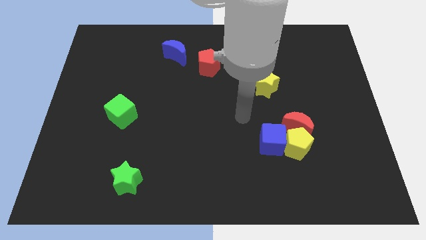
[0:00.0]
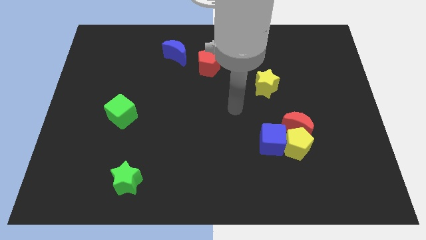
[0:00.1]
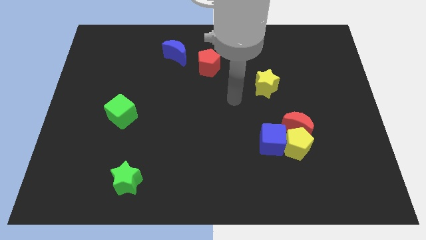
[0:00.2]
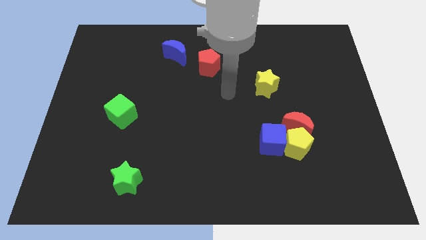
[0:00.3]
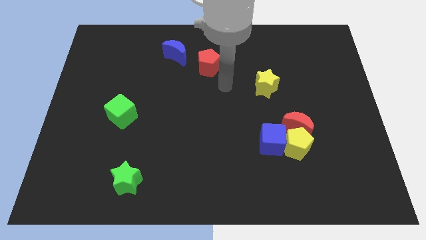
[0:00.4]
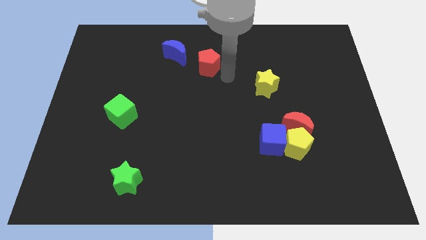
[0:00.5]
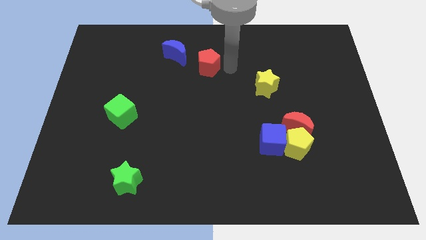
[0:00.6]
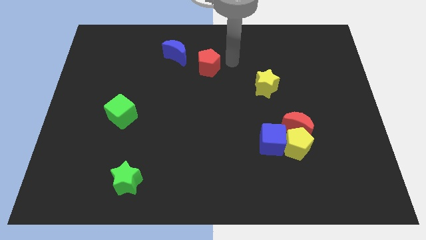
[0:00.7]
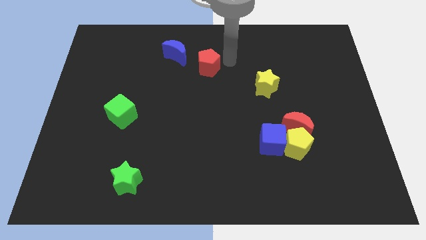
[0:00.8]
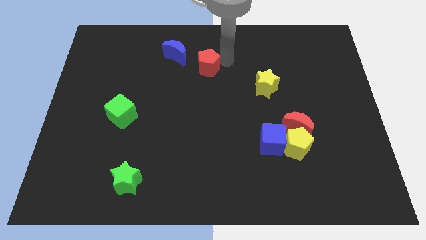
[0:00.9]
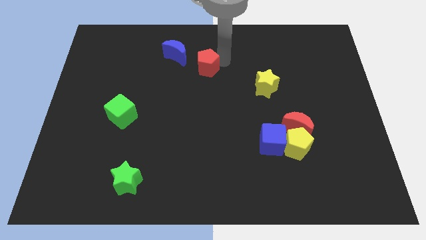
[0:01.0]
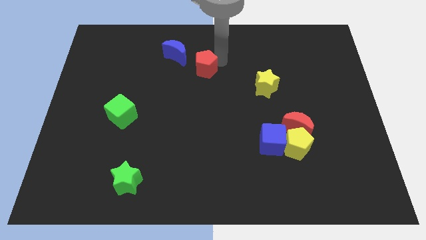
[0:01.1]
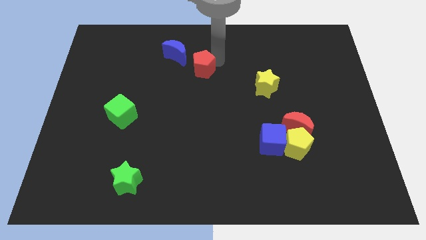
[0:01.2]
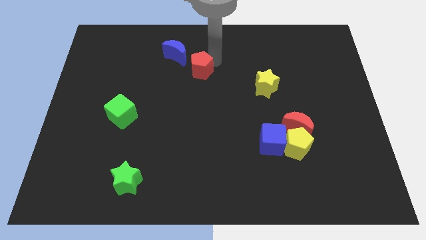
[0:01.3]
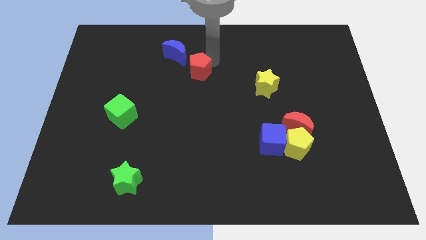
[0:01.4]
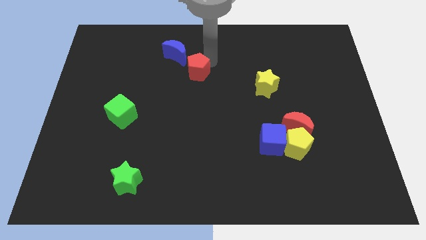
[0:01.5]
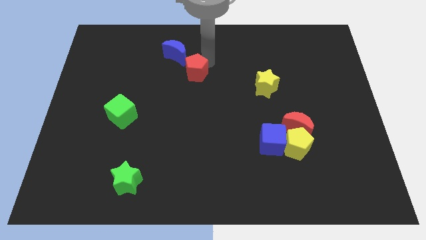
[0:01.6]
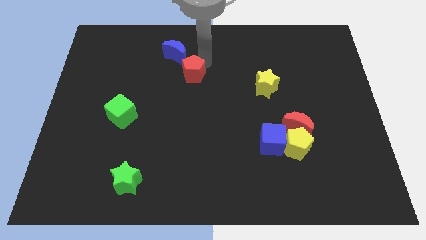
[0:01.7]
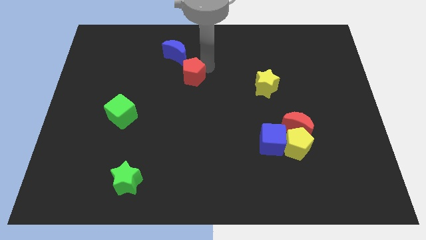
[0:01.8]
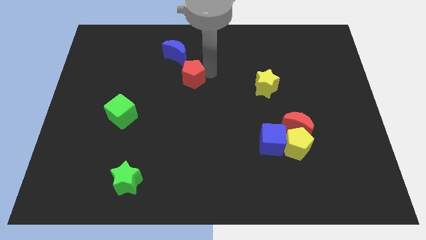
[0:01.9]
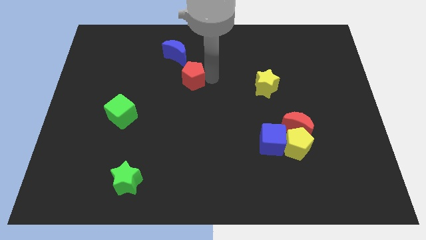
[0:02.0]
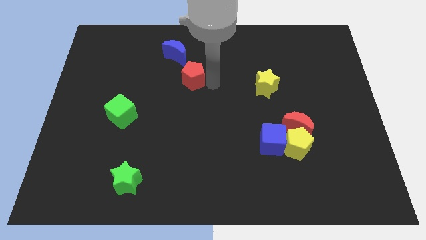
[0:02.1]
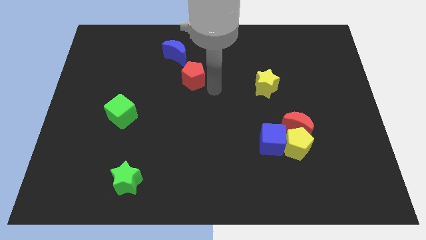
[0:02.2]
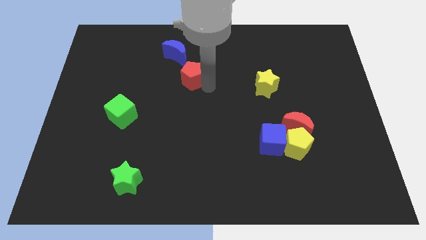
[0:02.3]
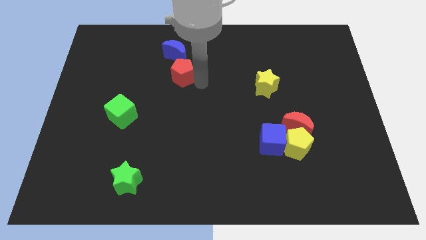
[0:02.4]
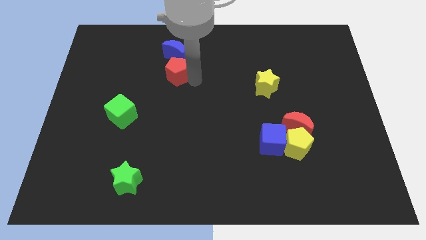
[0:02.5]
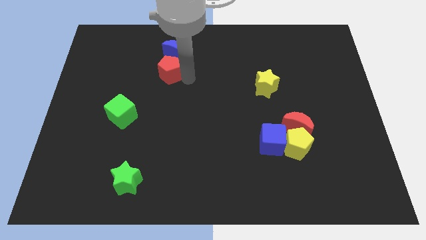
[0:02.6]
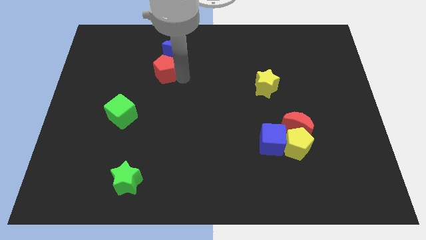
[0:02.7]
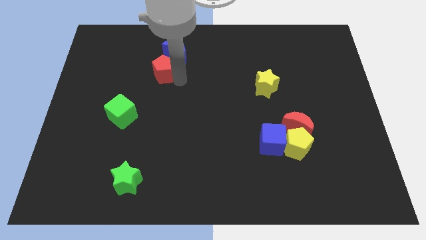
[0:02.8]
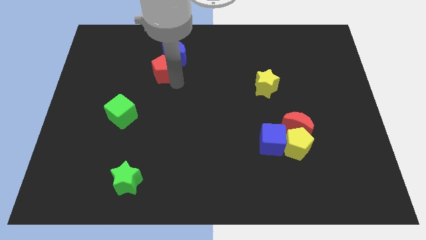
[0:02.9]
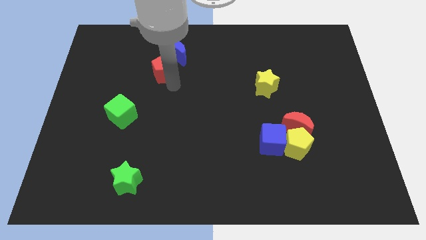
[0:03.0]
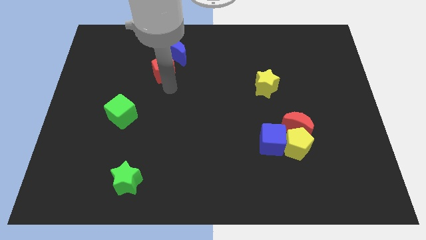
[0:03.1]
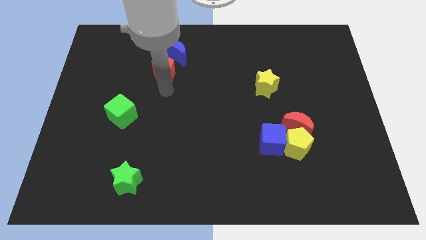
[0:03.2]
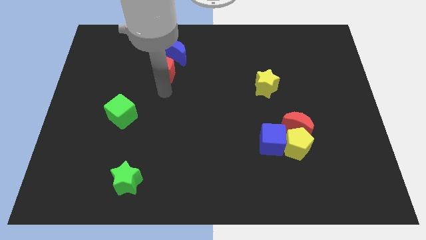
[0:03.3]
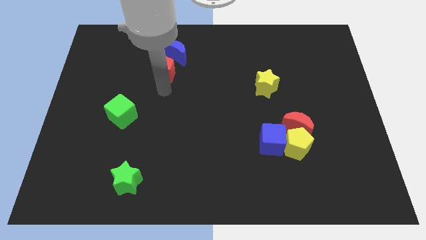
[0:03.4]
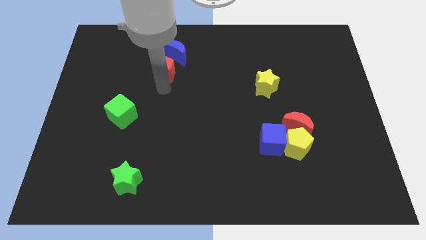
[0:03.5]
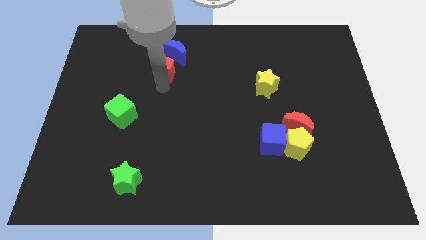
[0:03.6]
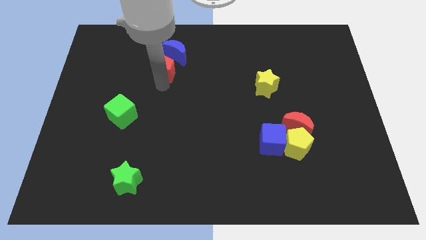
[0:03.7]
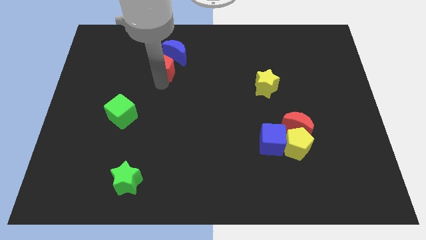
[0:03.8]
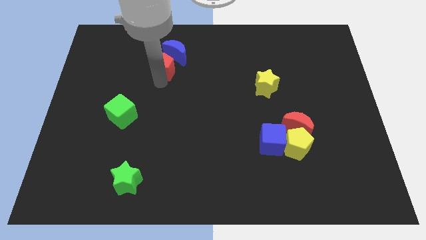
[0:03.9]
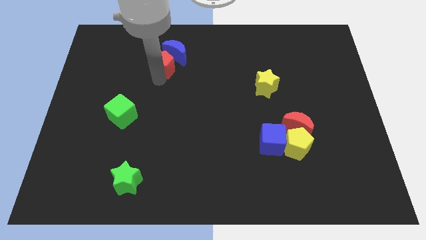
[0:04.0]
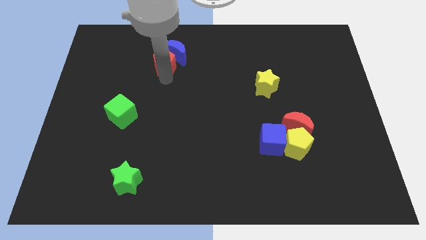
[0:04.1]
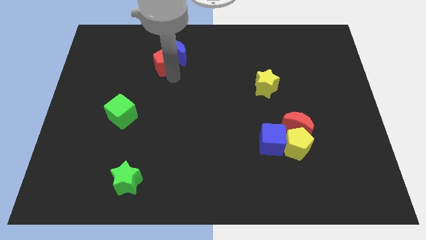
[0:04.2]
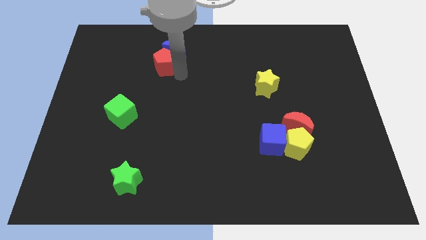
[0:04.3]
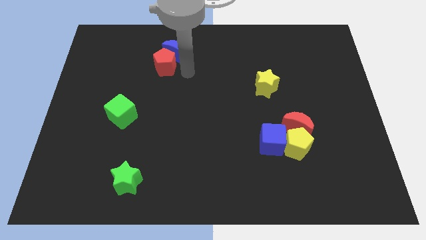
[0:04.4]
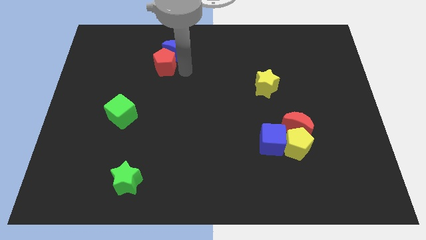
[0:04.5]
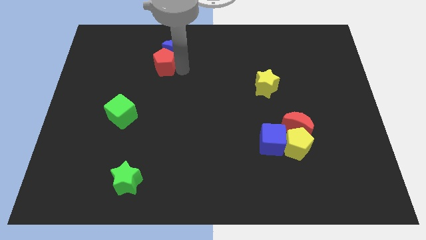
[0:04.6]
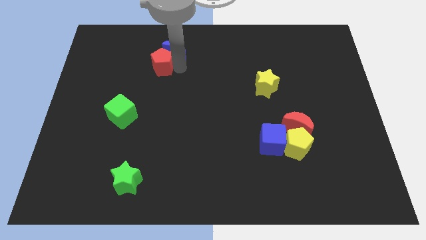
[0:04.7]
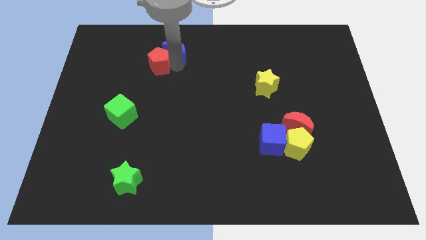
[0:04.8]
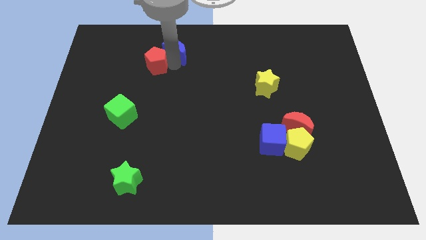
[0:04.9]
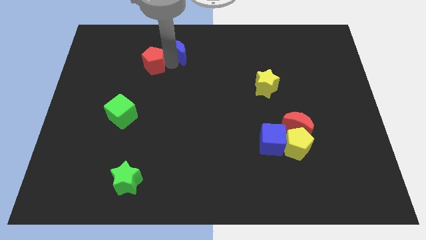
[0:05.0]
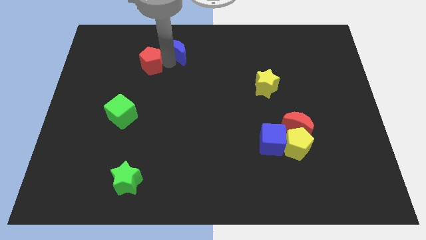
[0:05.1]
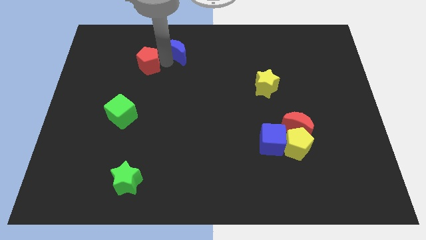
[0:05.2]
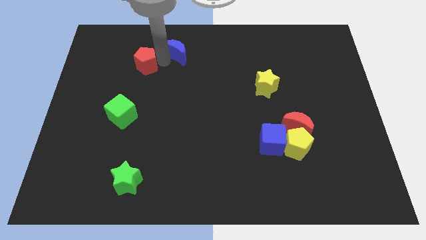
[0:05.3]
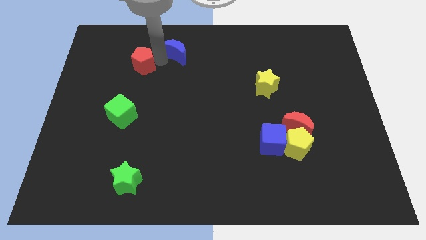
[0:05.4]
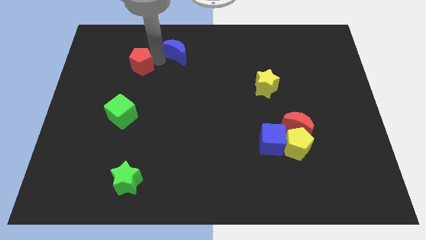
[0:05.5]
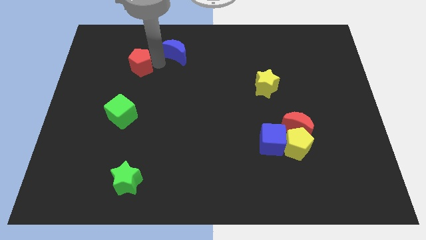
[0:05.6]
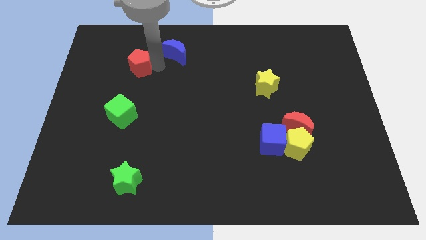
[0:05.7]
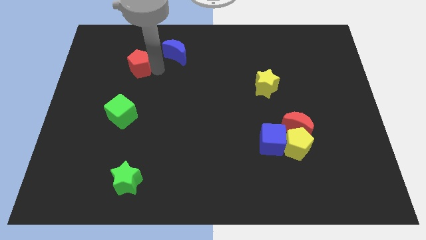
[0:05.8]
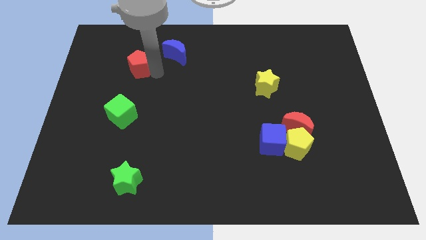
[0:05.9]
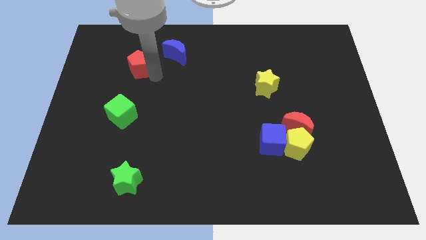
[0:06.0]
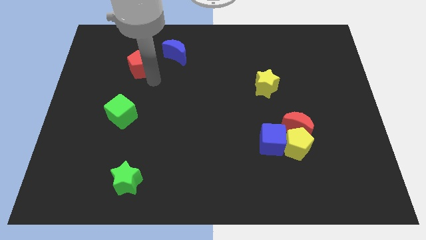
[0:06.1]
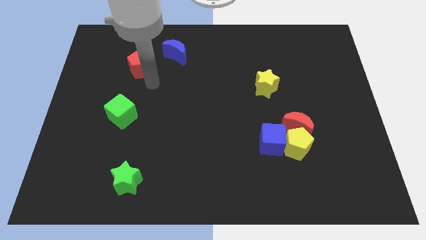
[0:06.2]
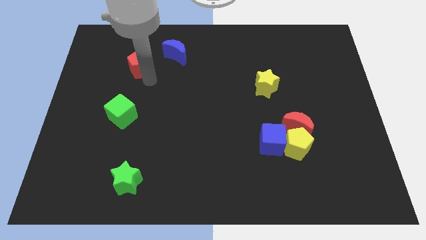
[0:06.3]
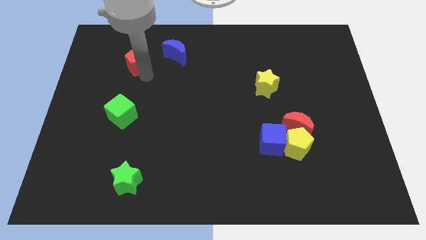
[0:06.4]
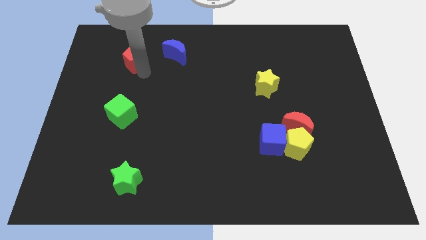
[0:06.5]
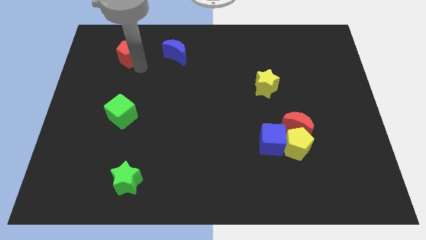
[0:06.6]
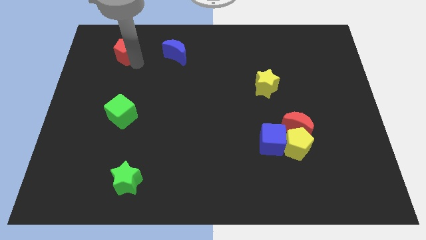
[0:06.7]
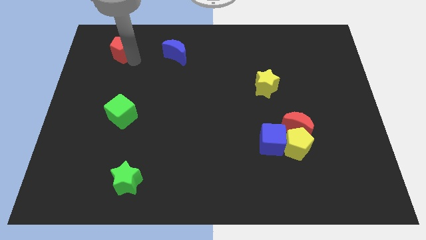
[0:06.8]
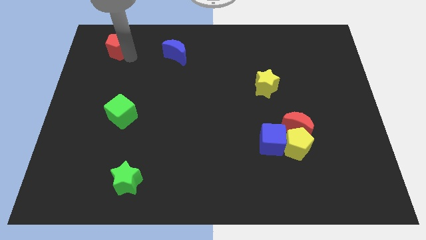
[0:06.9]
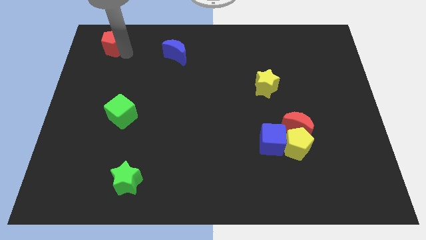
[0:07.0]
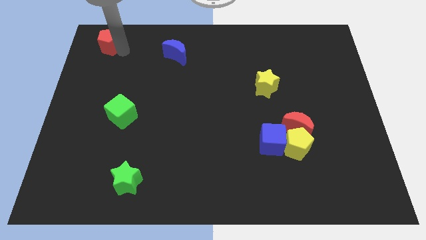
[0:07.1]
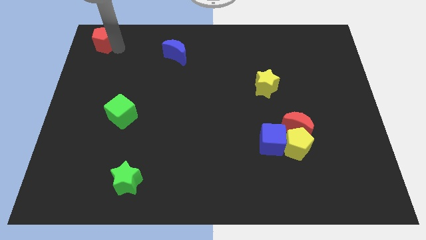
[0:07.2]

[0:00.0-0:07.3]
slide the red pentagon to the top left
